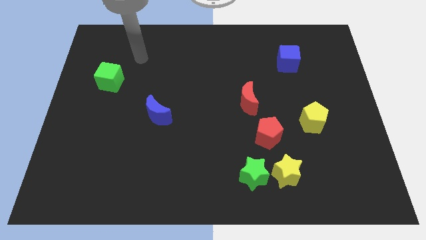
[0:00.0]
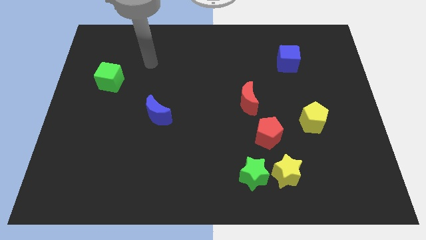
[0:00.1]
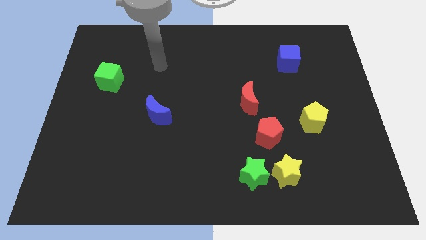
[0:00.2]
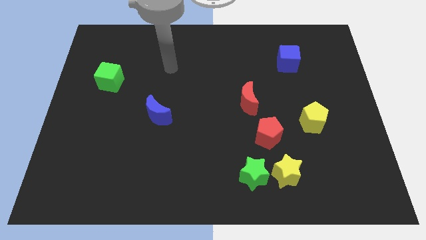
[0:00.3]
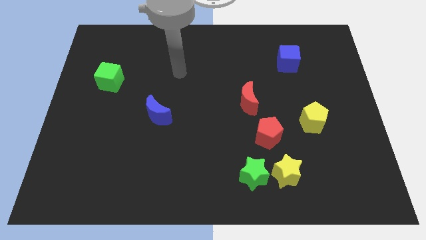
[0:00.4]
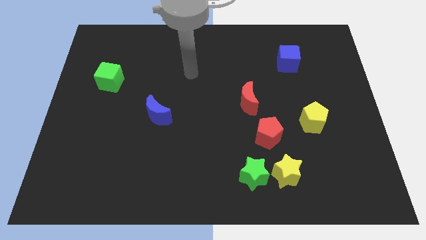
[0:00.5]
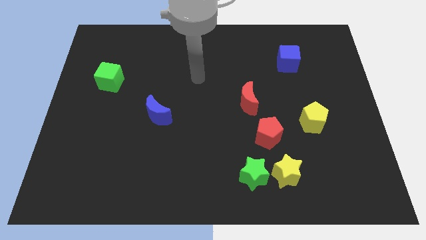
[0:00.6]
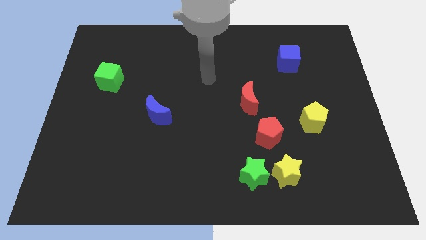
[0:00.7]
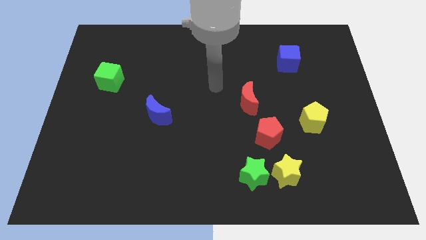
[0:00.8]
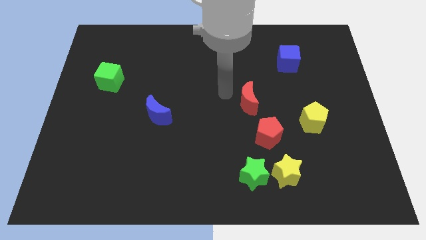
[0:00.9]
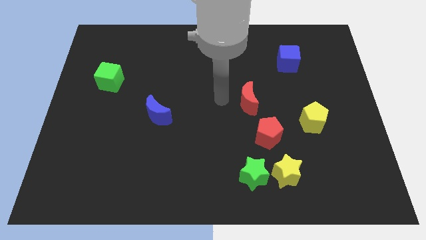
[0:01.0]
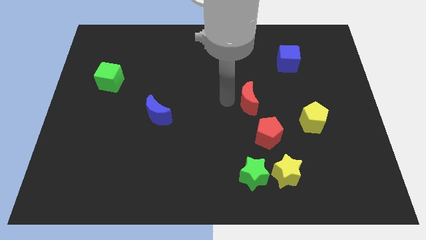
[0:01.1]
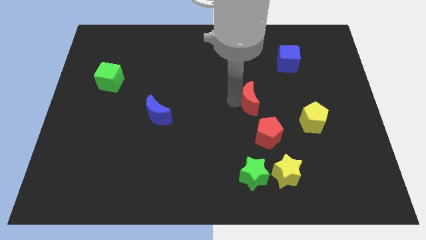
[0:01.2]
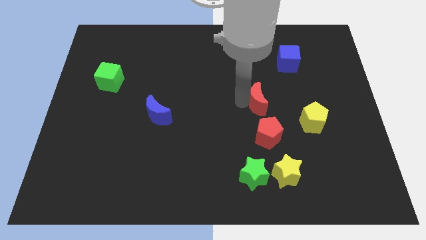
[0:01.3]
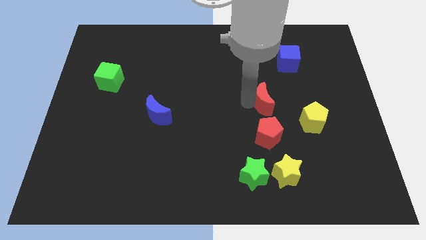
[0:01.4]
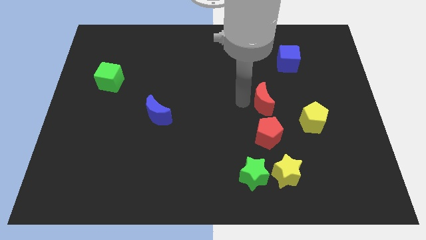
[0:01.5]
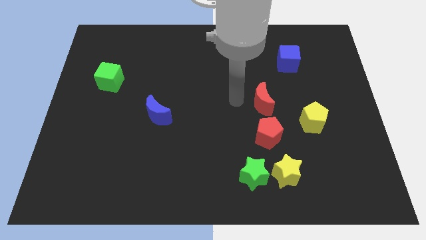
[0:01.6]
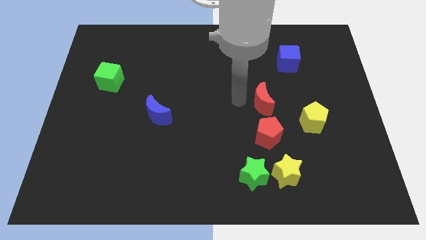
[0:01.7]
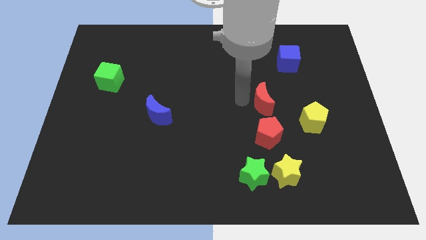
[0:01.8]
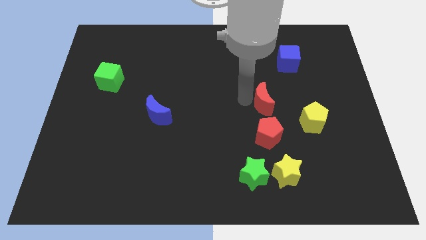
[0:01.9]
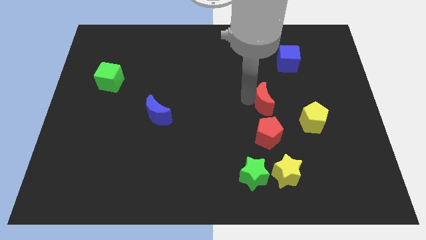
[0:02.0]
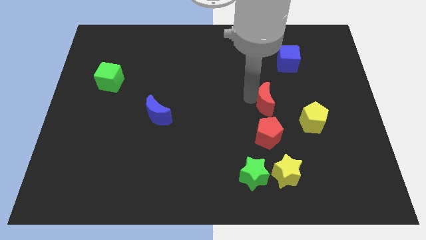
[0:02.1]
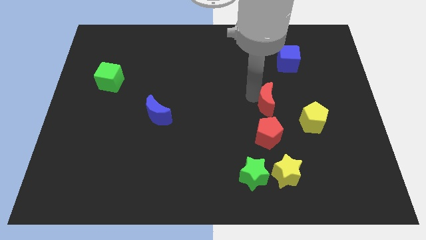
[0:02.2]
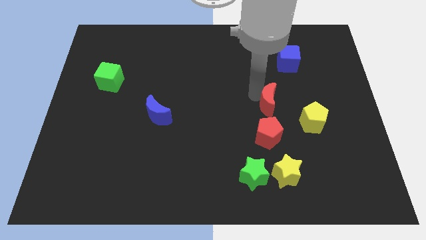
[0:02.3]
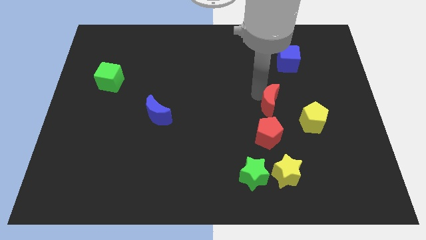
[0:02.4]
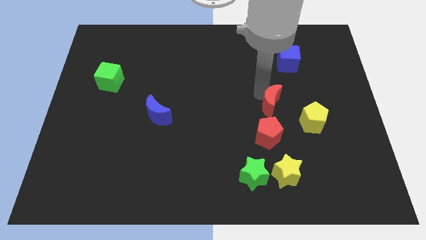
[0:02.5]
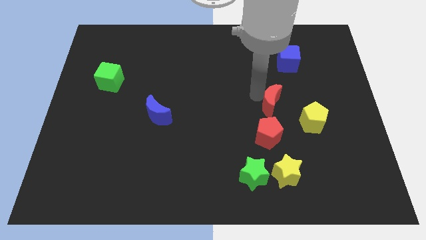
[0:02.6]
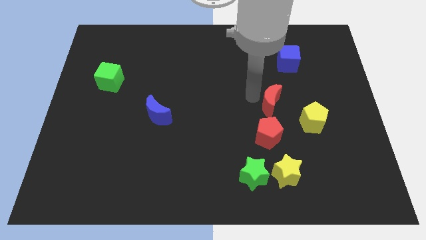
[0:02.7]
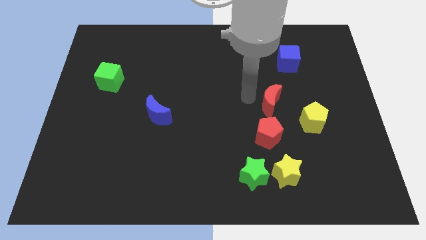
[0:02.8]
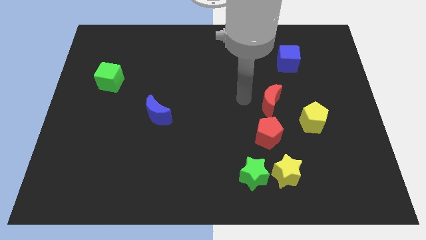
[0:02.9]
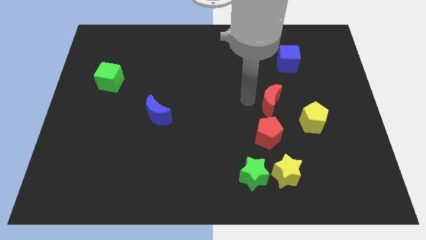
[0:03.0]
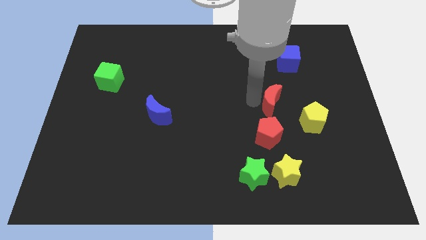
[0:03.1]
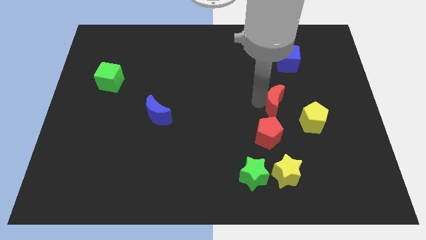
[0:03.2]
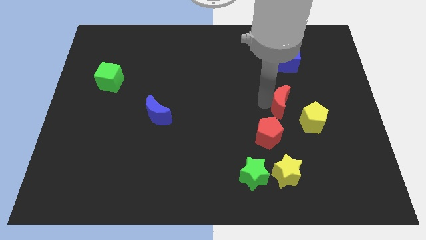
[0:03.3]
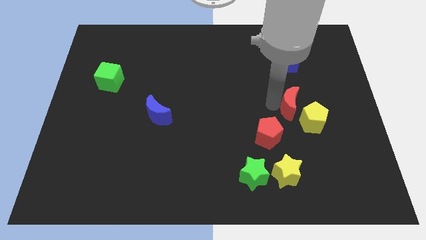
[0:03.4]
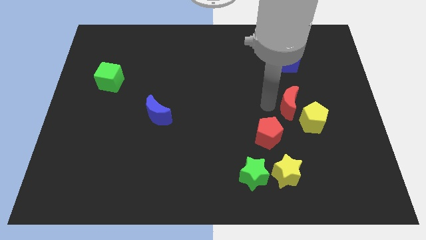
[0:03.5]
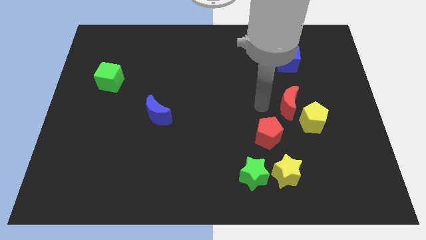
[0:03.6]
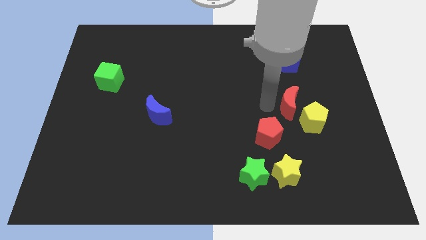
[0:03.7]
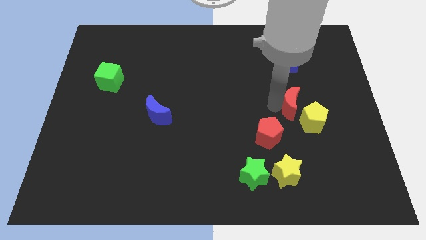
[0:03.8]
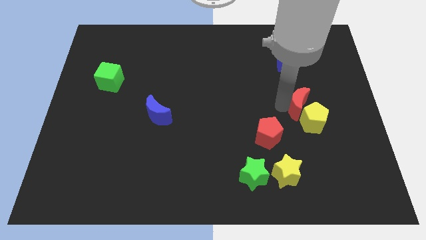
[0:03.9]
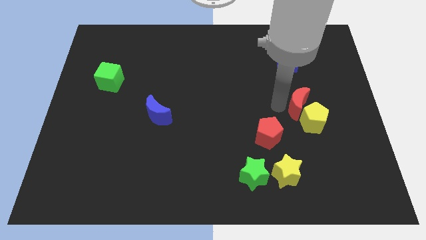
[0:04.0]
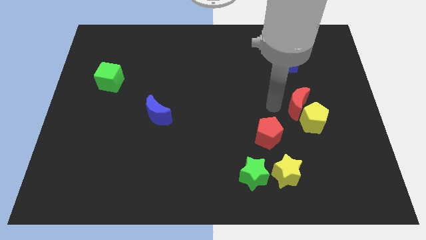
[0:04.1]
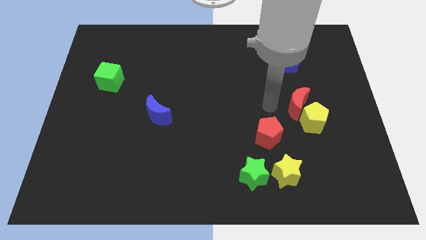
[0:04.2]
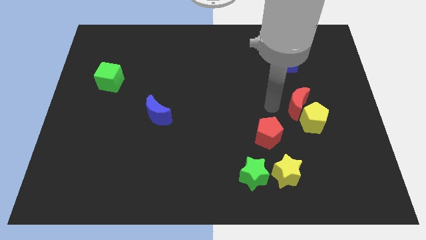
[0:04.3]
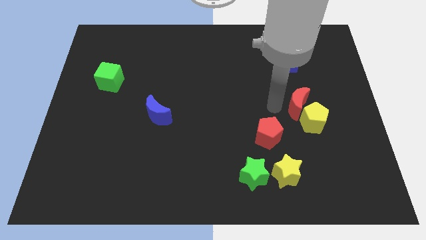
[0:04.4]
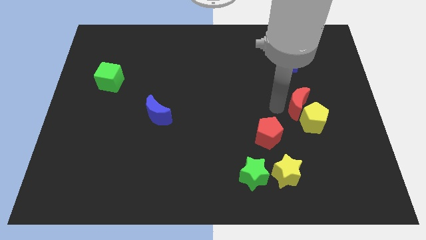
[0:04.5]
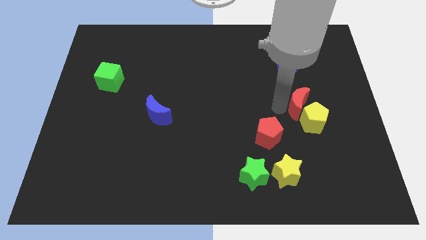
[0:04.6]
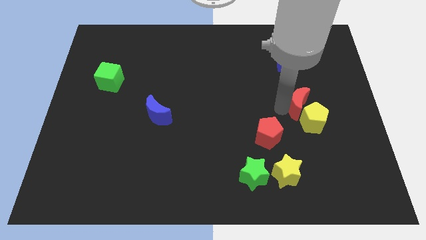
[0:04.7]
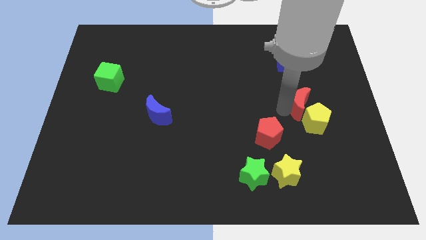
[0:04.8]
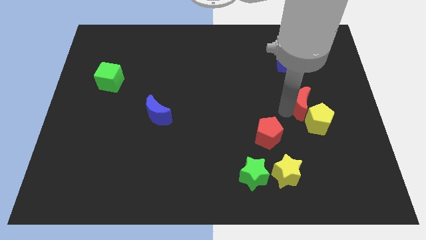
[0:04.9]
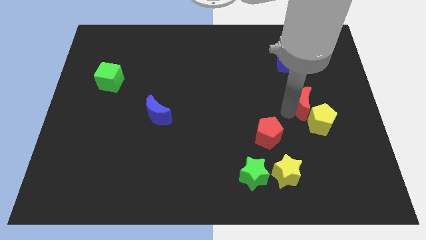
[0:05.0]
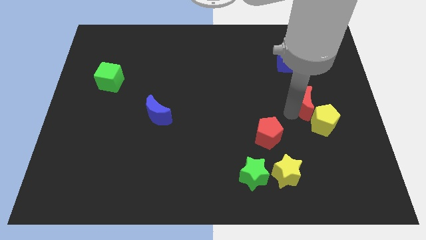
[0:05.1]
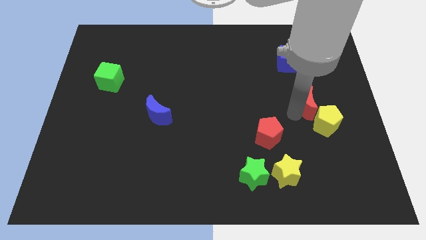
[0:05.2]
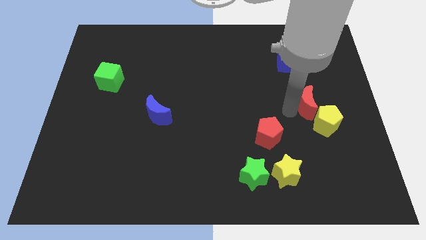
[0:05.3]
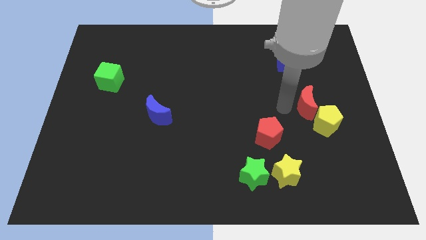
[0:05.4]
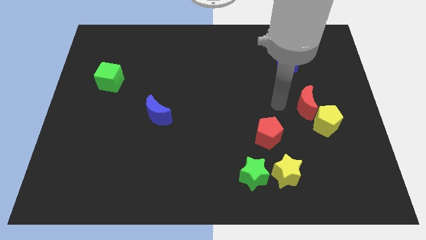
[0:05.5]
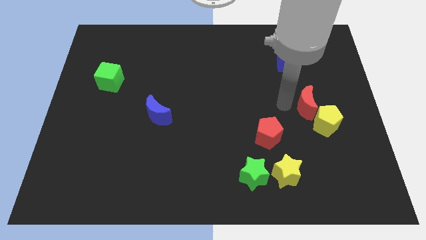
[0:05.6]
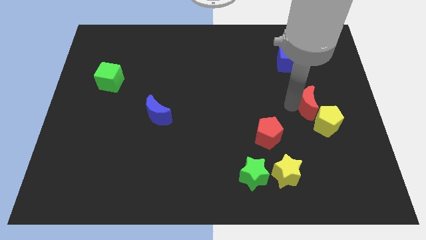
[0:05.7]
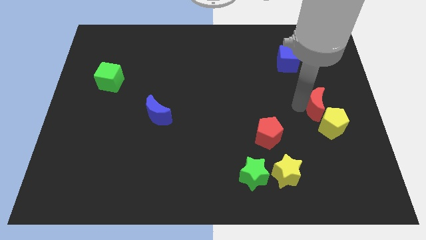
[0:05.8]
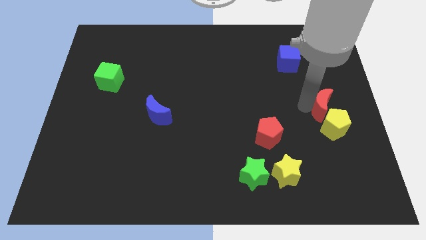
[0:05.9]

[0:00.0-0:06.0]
move the red moon to the right side of the board

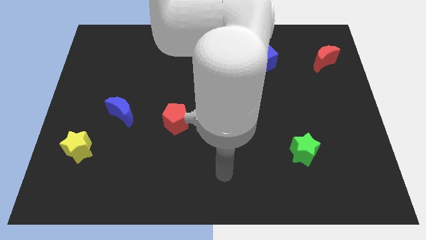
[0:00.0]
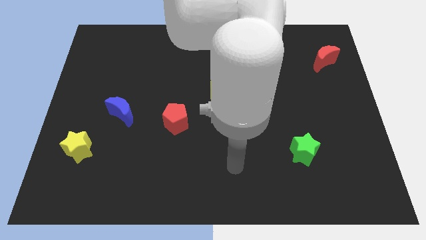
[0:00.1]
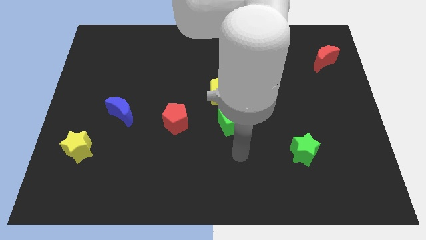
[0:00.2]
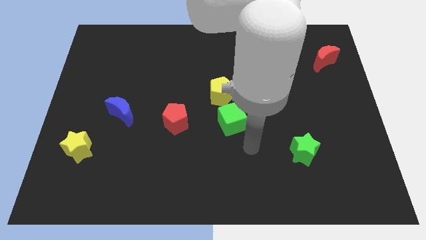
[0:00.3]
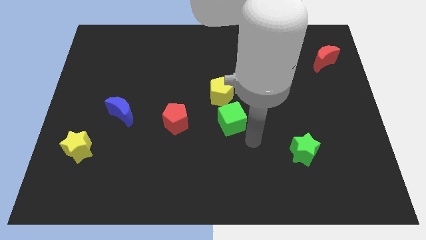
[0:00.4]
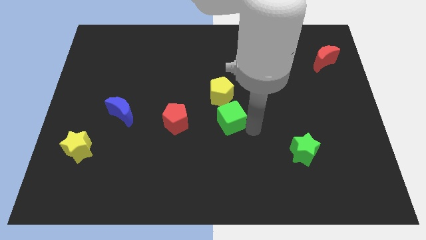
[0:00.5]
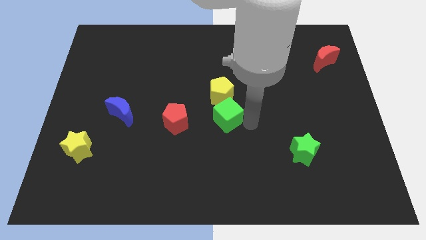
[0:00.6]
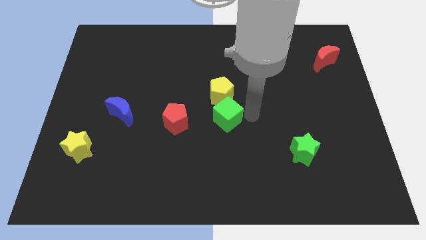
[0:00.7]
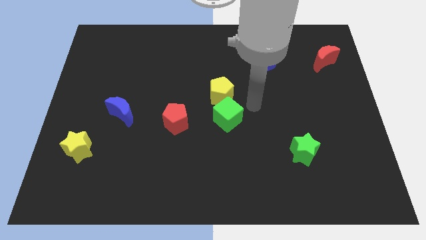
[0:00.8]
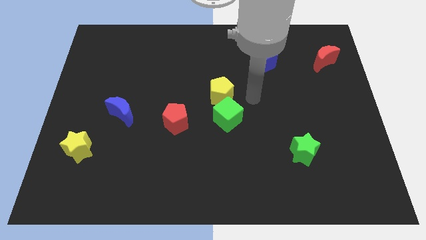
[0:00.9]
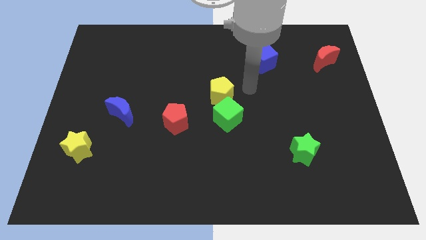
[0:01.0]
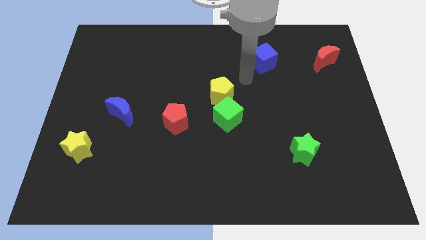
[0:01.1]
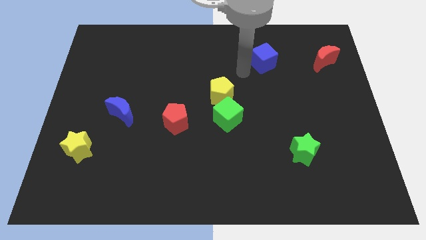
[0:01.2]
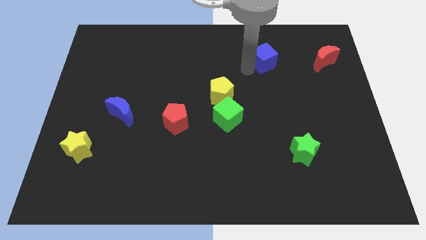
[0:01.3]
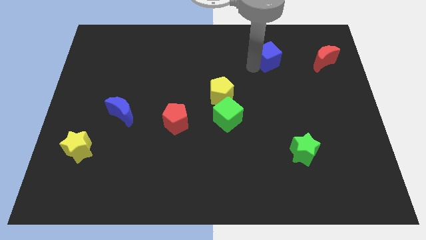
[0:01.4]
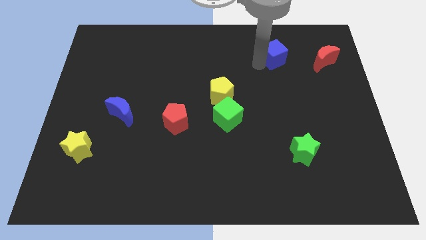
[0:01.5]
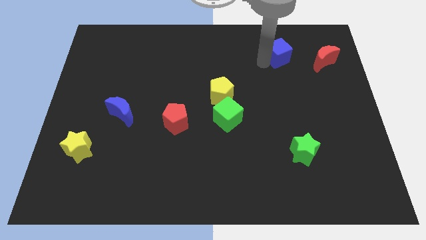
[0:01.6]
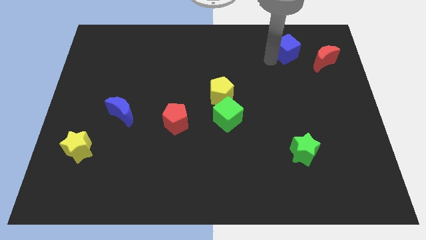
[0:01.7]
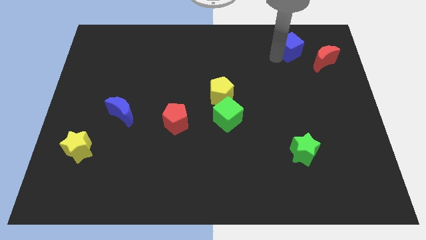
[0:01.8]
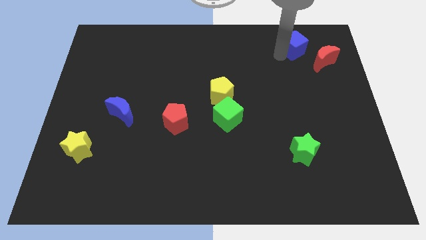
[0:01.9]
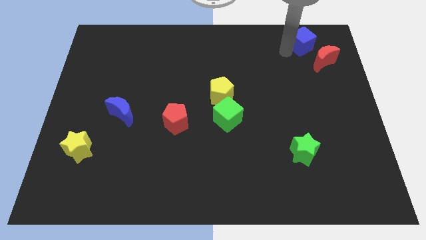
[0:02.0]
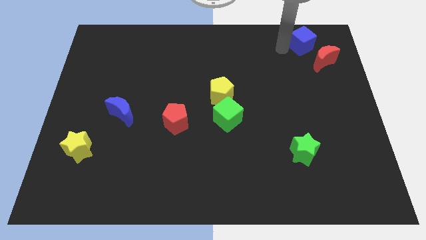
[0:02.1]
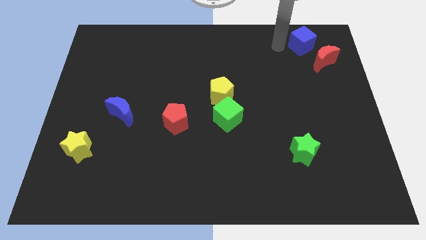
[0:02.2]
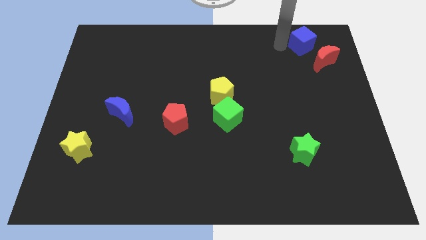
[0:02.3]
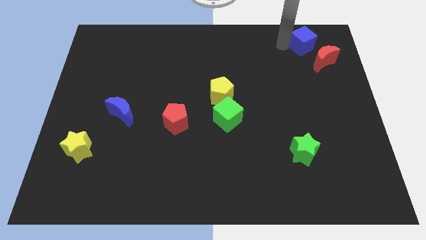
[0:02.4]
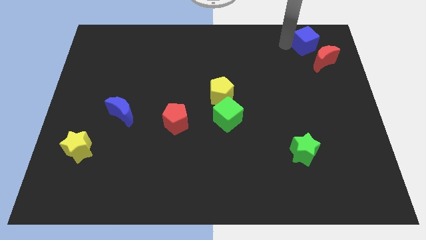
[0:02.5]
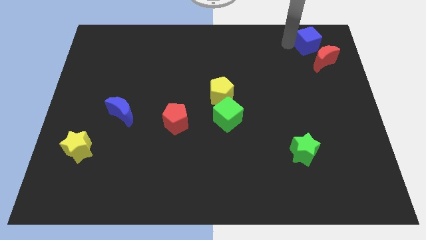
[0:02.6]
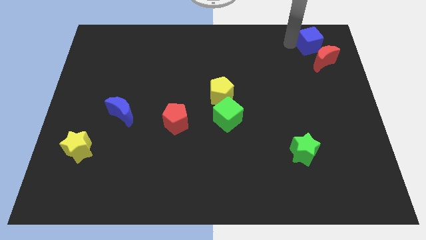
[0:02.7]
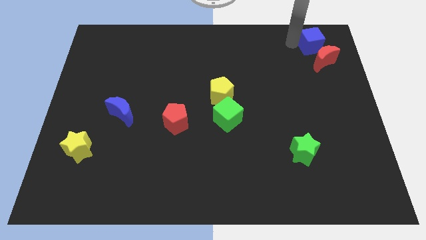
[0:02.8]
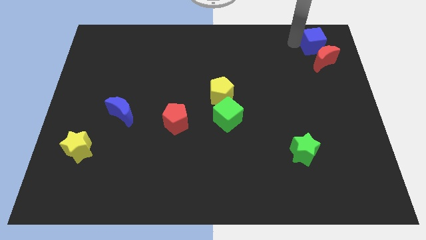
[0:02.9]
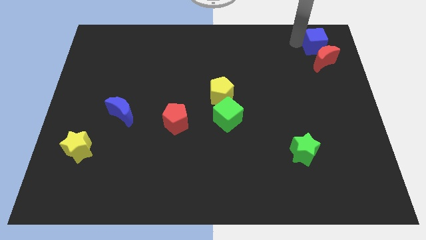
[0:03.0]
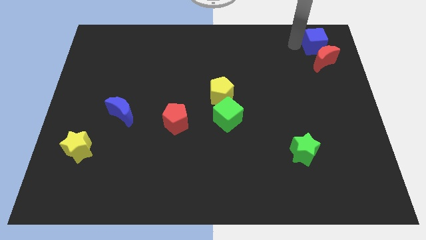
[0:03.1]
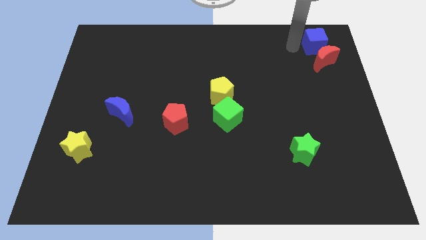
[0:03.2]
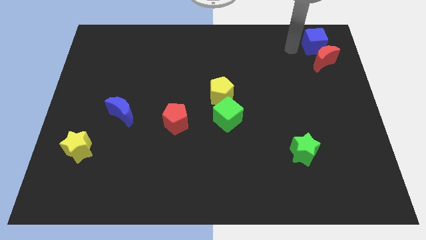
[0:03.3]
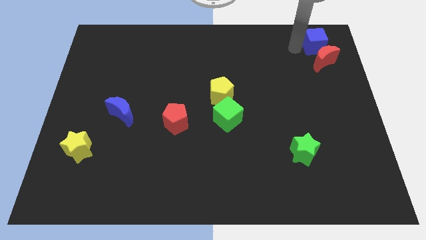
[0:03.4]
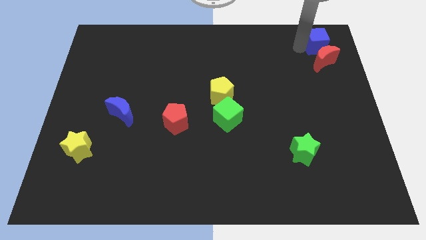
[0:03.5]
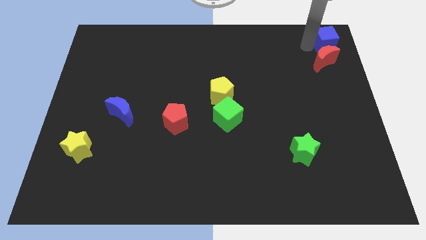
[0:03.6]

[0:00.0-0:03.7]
move the blue cube to the top right corner
